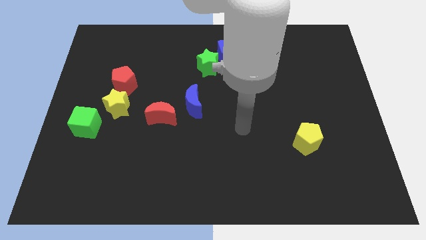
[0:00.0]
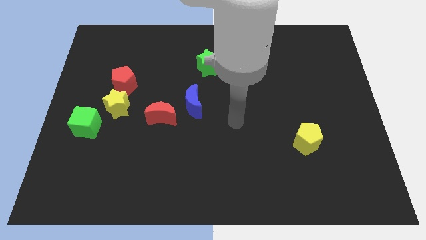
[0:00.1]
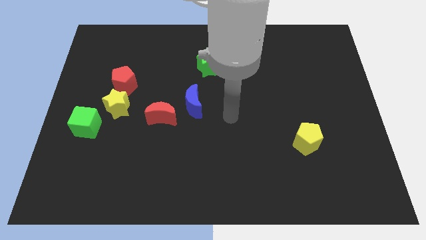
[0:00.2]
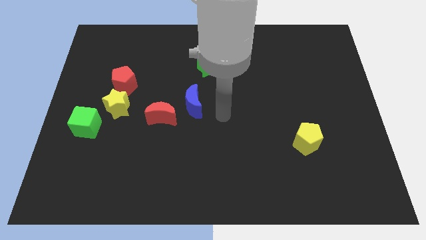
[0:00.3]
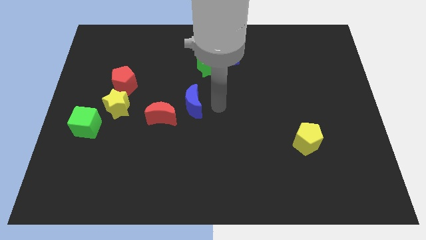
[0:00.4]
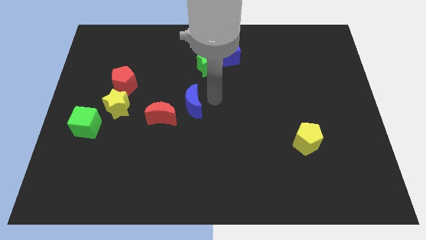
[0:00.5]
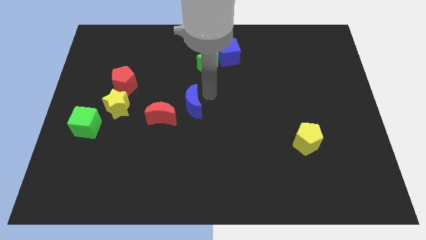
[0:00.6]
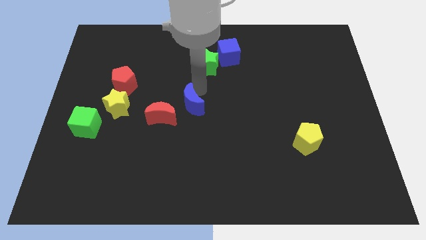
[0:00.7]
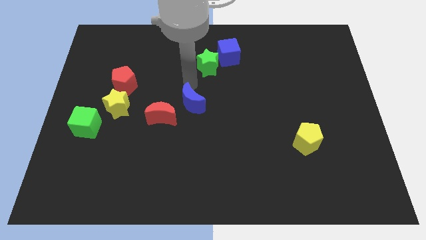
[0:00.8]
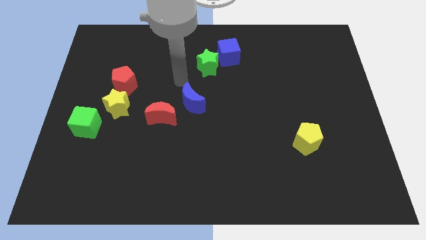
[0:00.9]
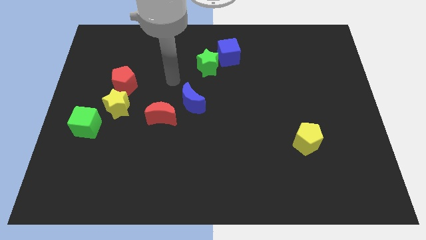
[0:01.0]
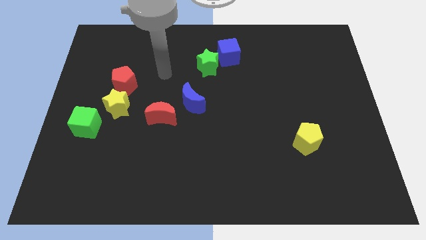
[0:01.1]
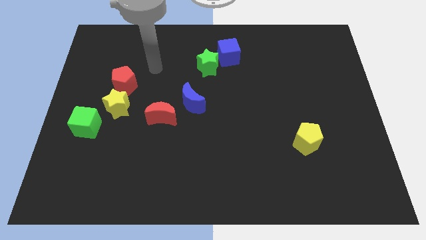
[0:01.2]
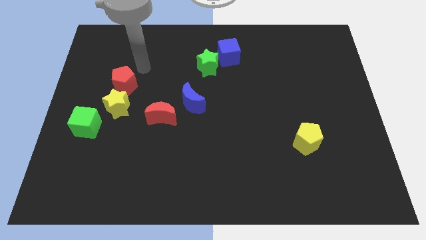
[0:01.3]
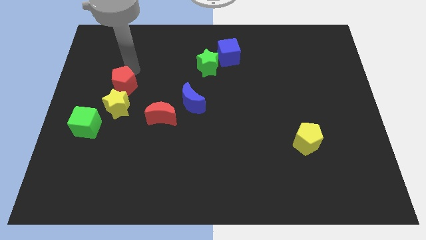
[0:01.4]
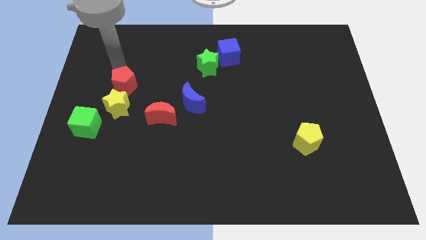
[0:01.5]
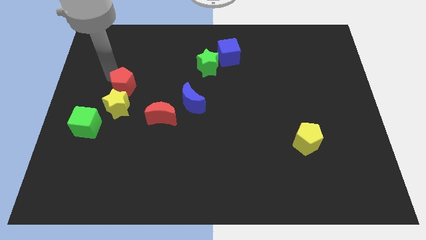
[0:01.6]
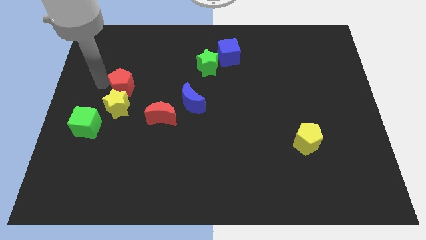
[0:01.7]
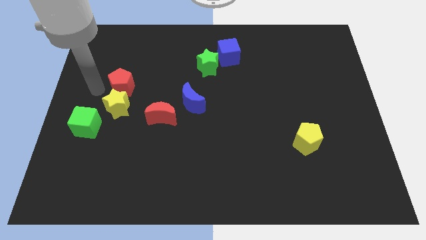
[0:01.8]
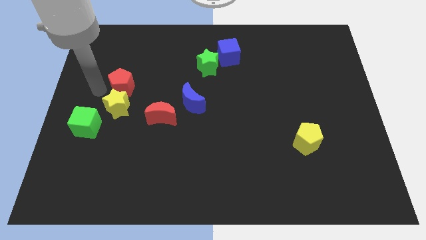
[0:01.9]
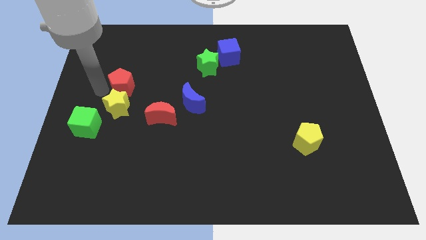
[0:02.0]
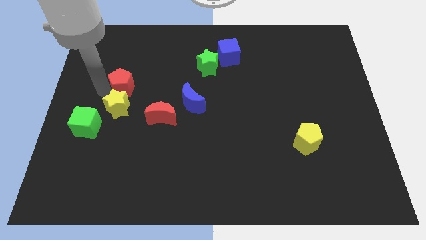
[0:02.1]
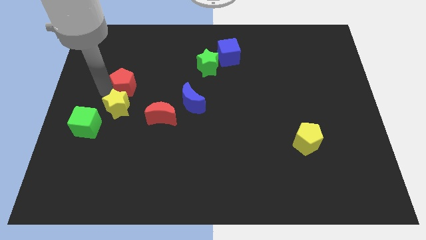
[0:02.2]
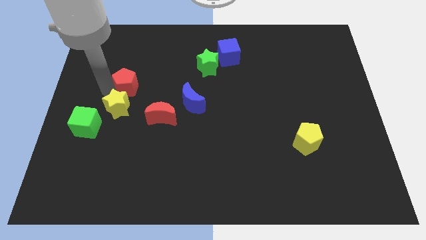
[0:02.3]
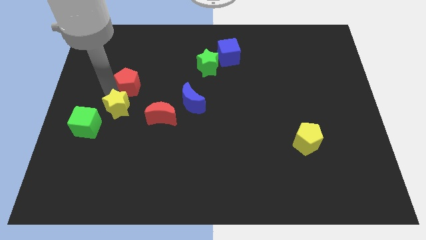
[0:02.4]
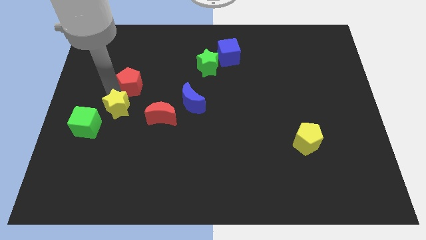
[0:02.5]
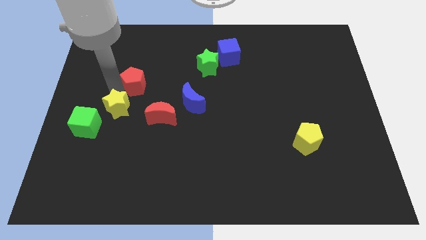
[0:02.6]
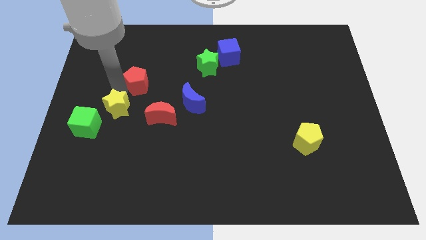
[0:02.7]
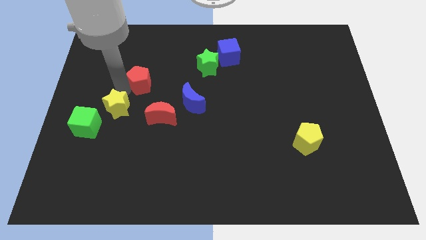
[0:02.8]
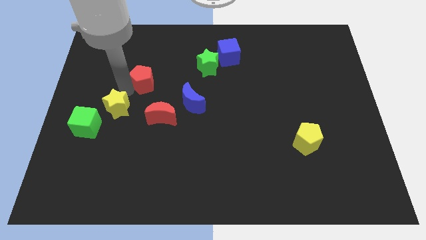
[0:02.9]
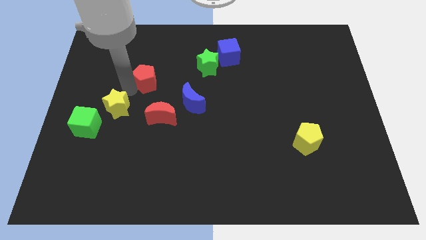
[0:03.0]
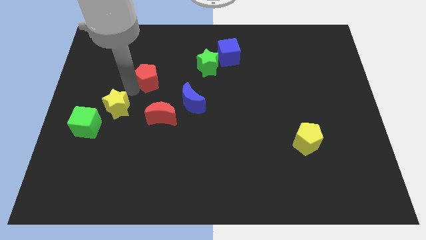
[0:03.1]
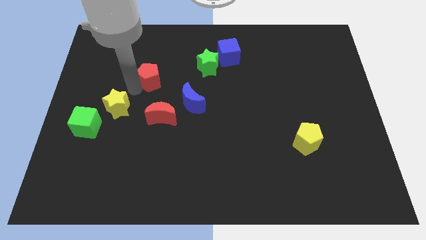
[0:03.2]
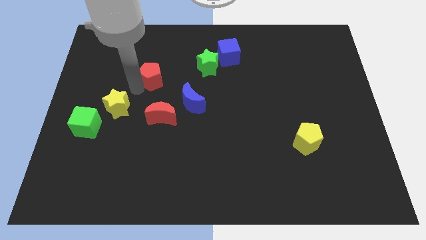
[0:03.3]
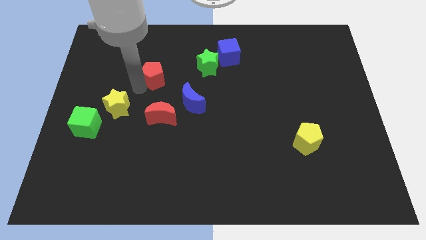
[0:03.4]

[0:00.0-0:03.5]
slightly push the red pentagon right

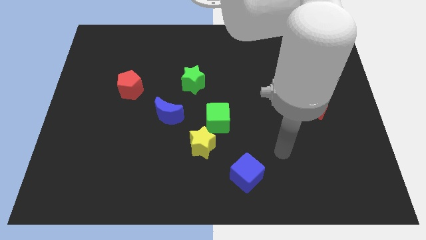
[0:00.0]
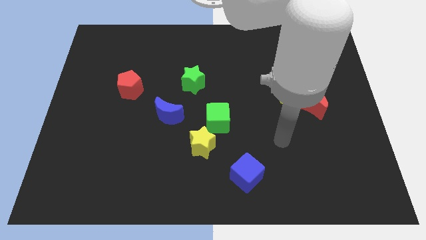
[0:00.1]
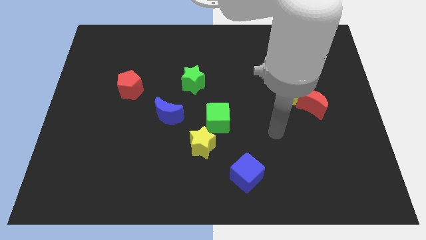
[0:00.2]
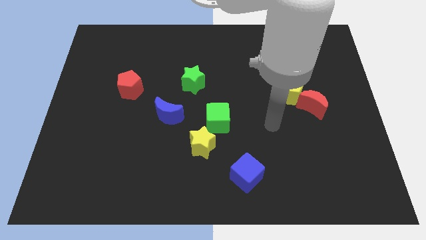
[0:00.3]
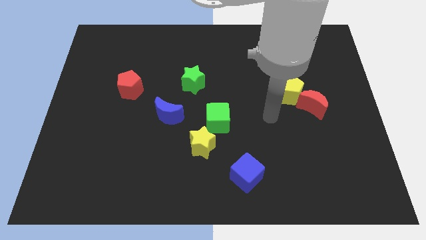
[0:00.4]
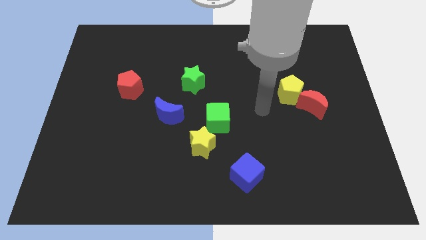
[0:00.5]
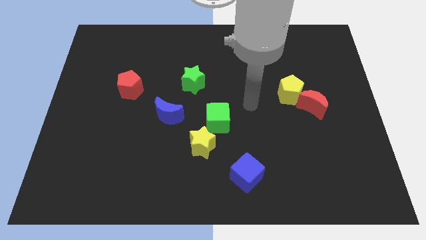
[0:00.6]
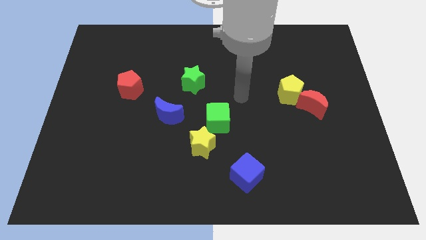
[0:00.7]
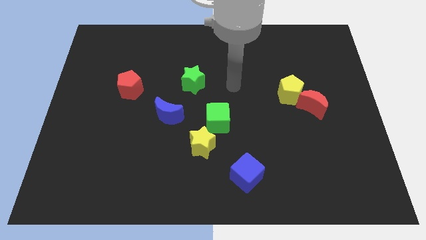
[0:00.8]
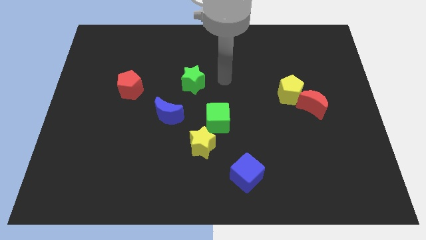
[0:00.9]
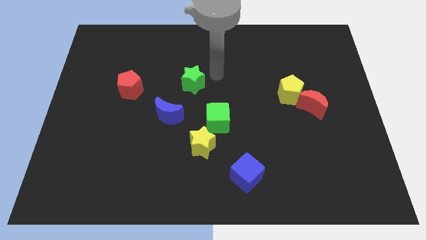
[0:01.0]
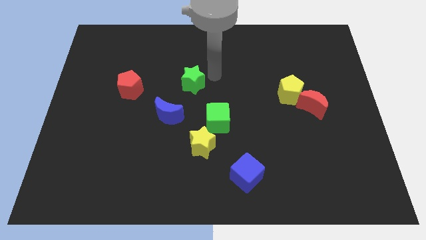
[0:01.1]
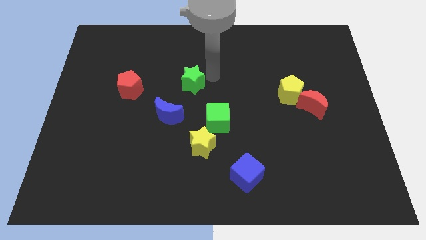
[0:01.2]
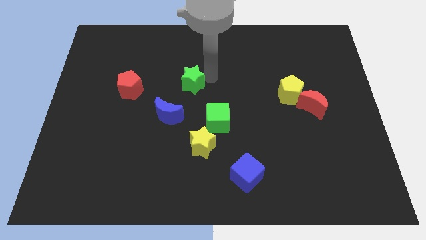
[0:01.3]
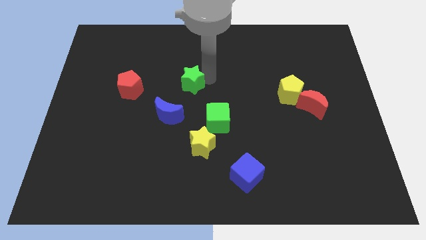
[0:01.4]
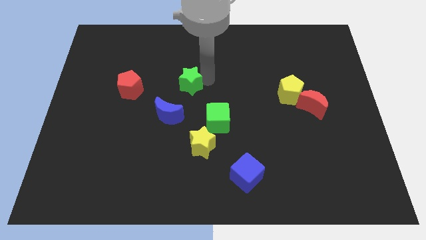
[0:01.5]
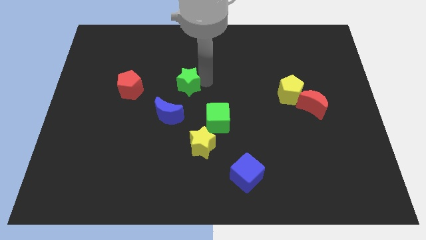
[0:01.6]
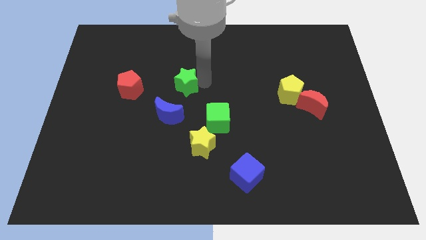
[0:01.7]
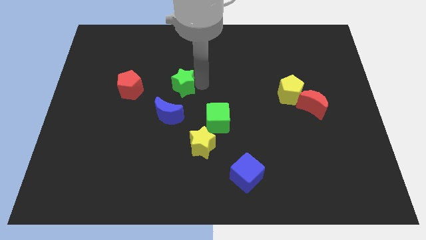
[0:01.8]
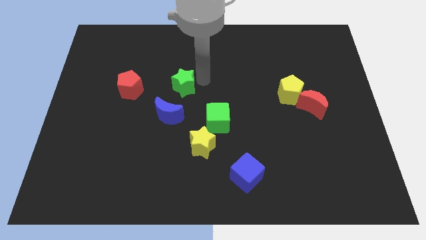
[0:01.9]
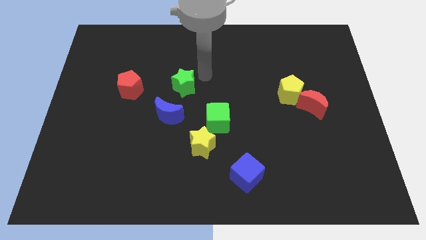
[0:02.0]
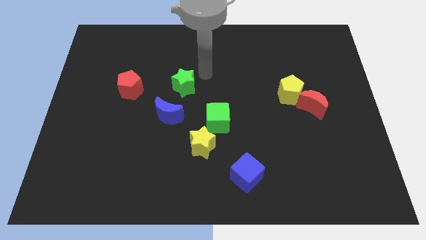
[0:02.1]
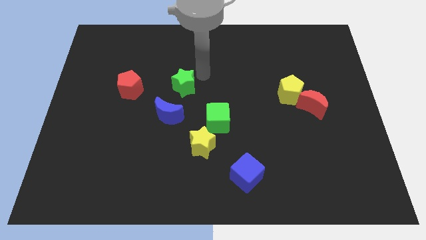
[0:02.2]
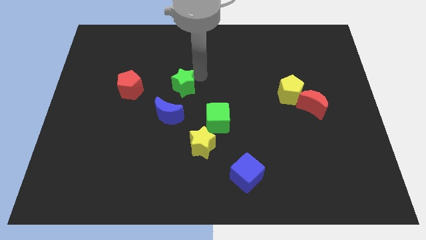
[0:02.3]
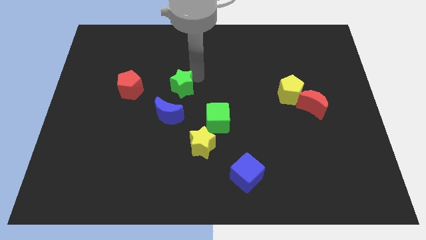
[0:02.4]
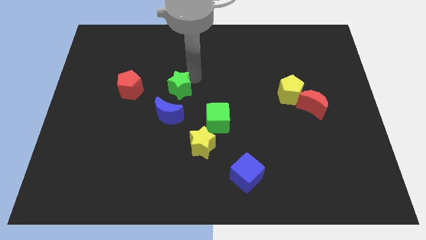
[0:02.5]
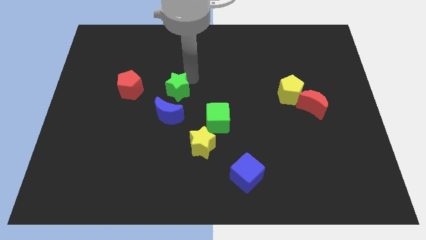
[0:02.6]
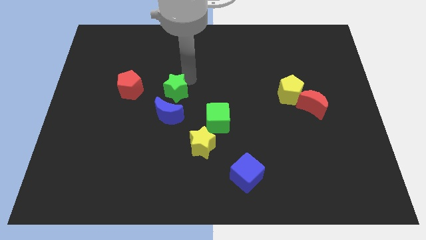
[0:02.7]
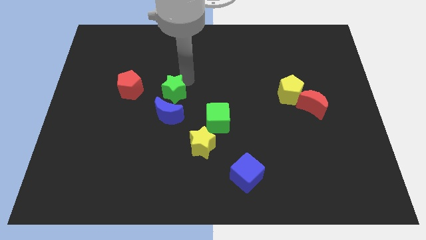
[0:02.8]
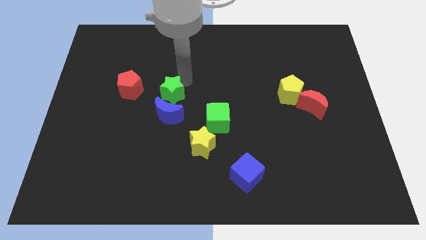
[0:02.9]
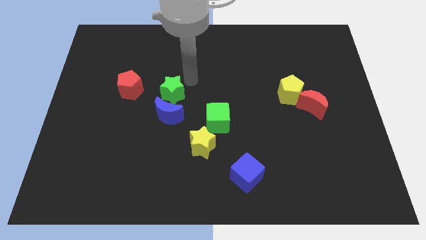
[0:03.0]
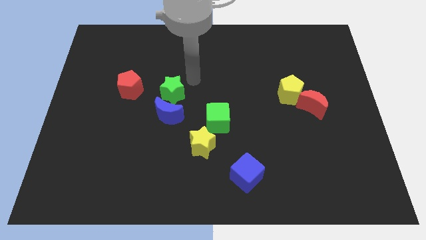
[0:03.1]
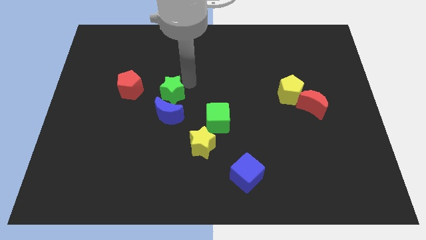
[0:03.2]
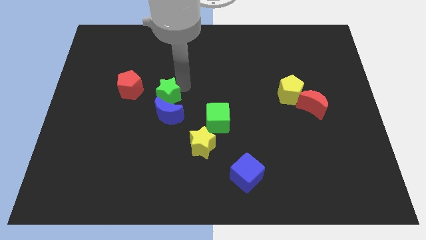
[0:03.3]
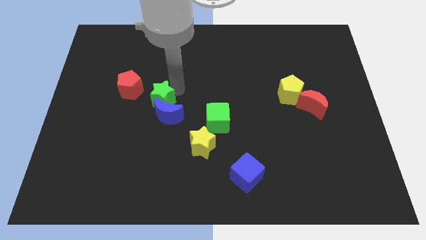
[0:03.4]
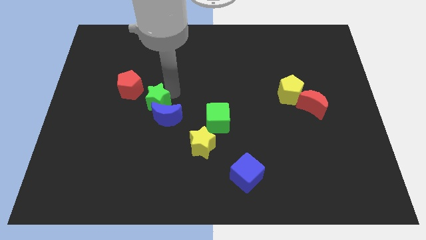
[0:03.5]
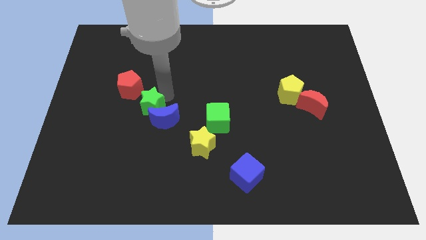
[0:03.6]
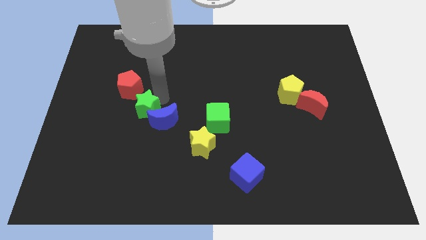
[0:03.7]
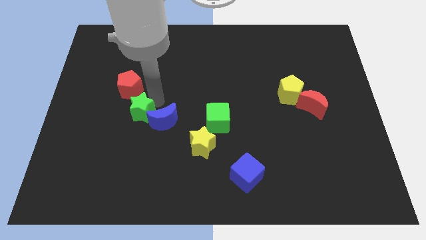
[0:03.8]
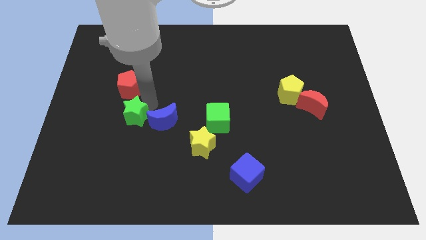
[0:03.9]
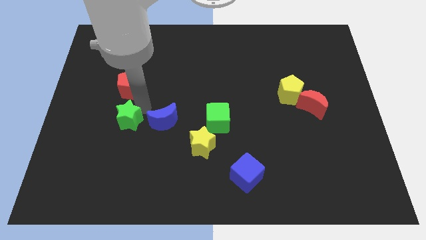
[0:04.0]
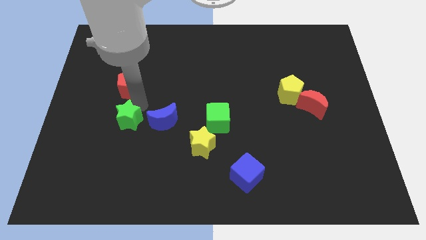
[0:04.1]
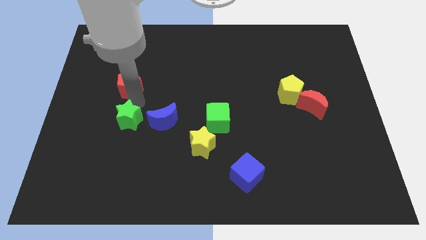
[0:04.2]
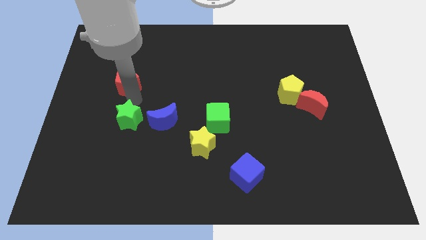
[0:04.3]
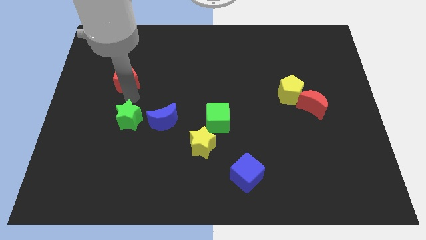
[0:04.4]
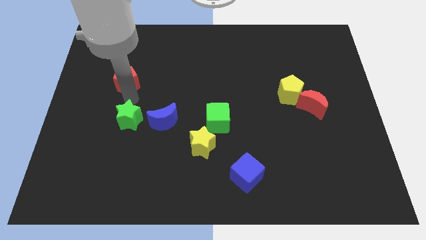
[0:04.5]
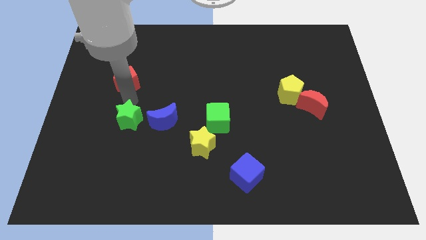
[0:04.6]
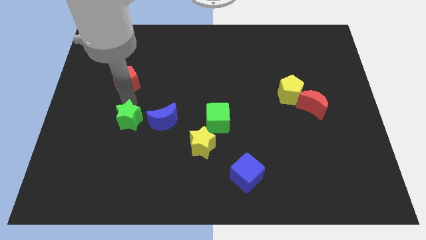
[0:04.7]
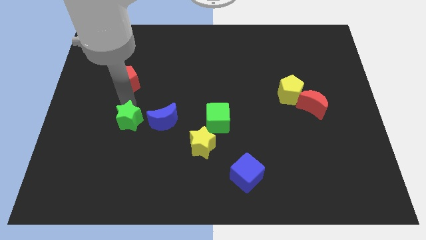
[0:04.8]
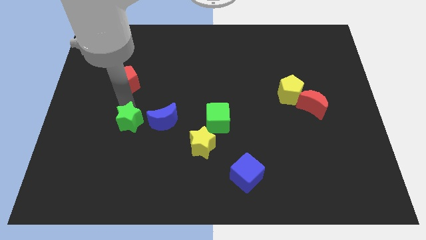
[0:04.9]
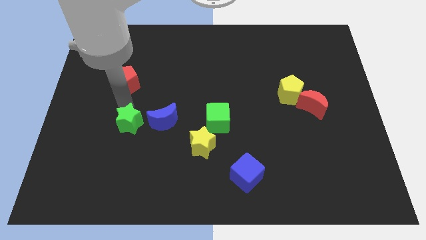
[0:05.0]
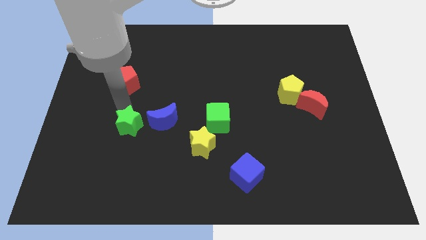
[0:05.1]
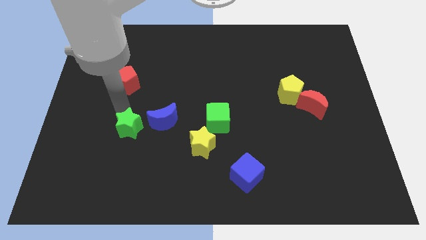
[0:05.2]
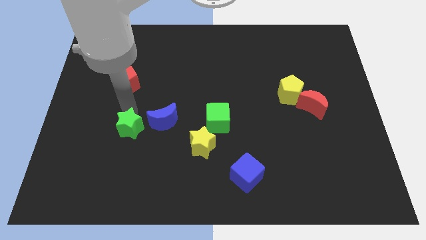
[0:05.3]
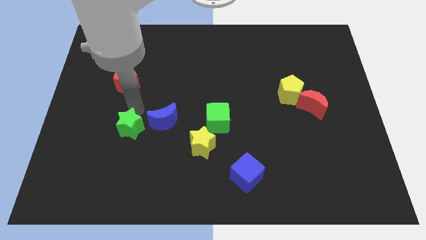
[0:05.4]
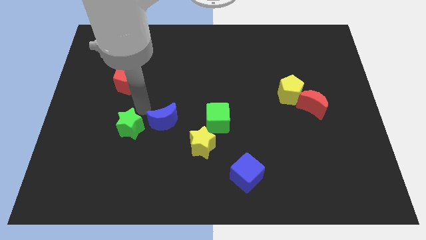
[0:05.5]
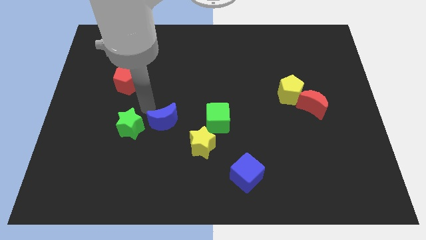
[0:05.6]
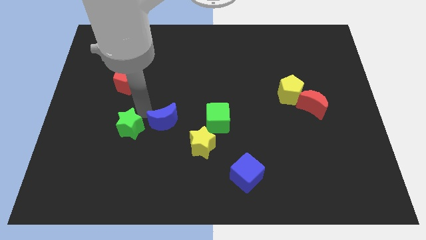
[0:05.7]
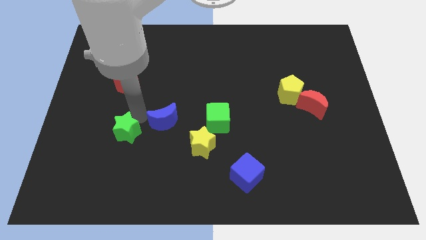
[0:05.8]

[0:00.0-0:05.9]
move the green star downwards and then to the left
